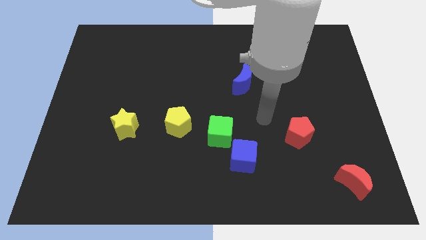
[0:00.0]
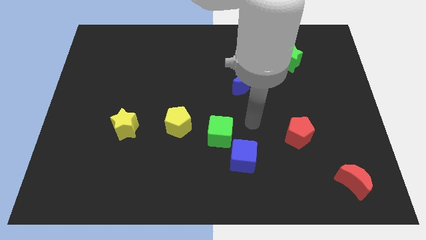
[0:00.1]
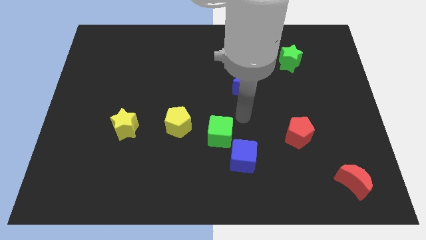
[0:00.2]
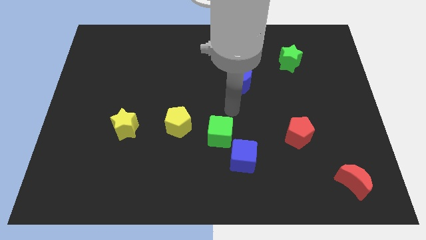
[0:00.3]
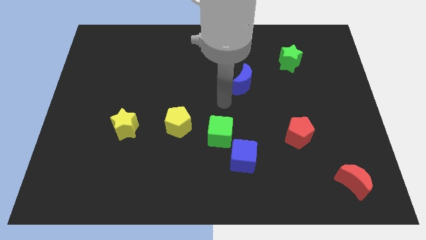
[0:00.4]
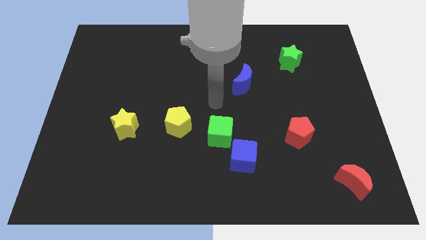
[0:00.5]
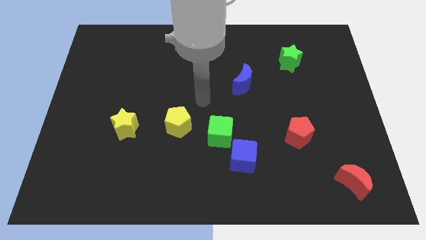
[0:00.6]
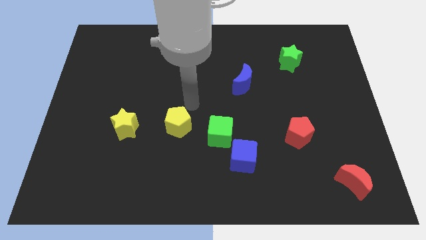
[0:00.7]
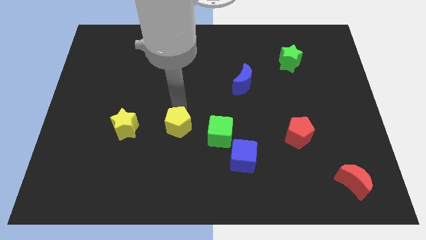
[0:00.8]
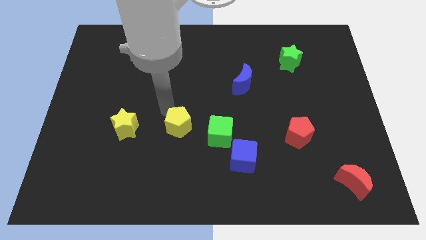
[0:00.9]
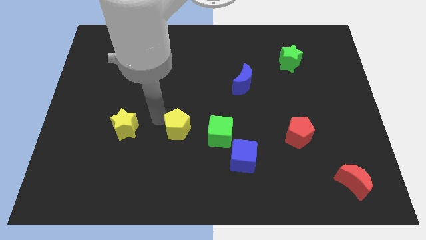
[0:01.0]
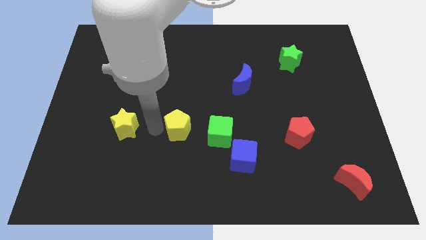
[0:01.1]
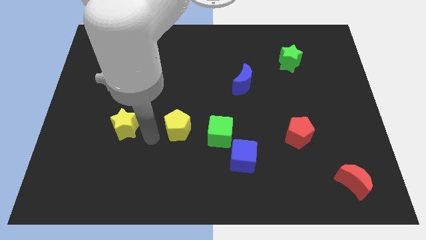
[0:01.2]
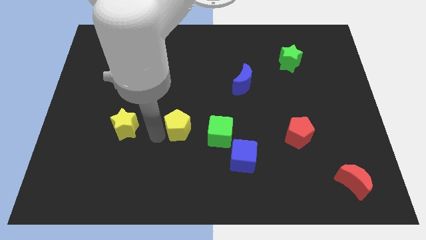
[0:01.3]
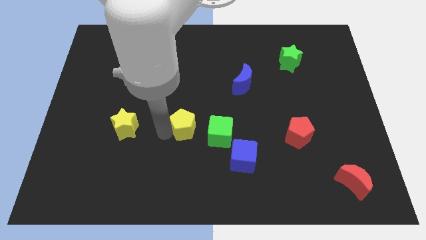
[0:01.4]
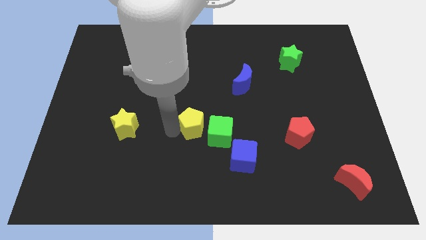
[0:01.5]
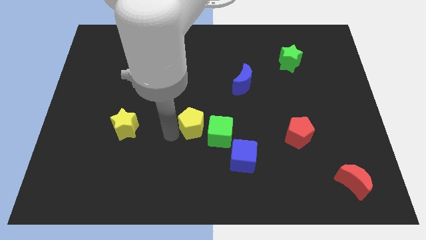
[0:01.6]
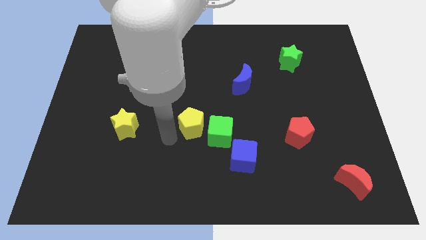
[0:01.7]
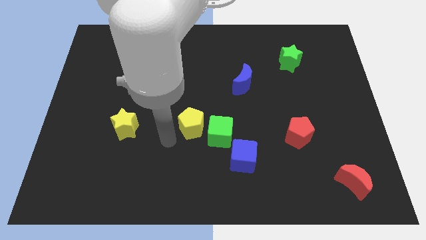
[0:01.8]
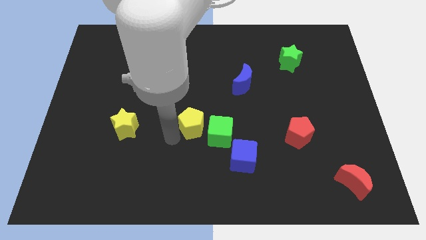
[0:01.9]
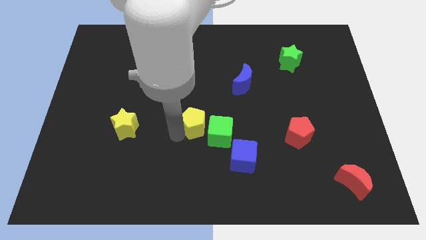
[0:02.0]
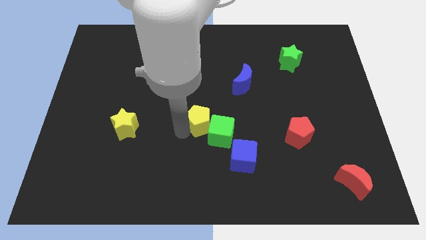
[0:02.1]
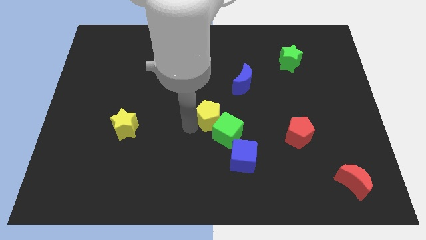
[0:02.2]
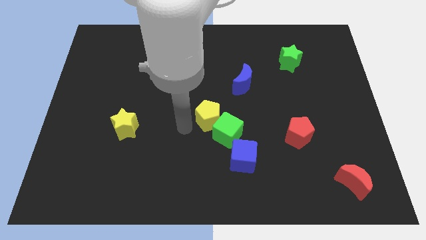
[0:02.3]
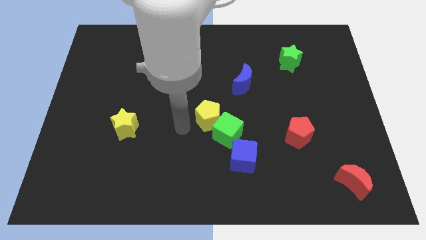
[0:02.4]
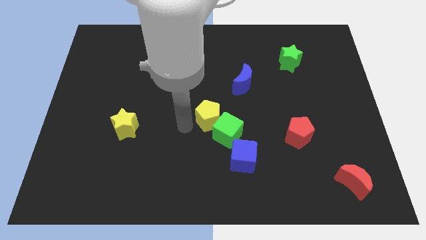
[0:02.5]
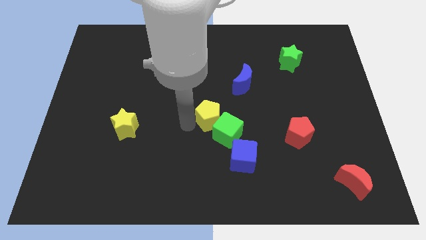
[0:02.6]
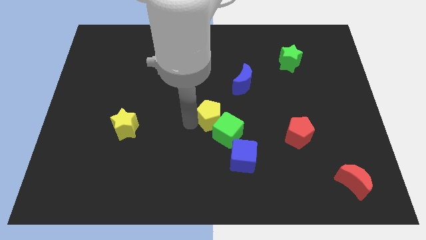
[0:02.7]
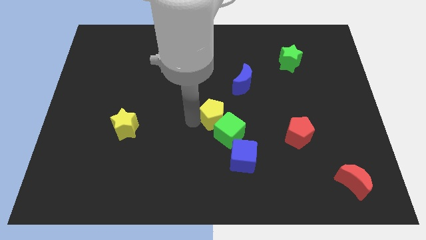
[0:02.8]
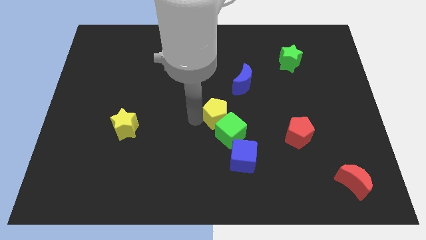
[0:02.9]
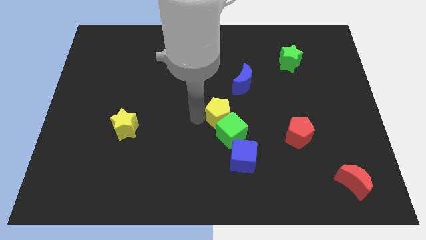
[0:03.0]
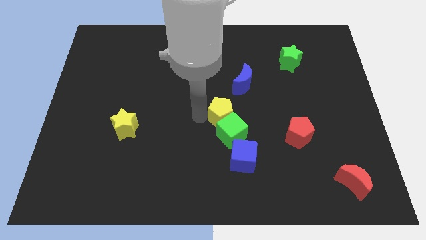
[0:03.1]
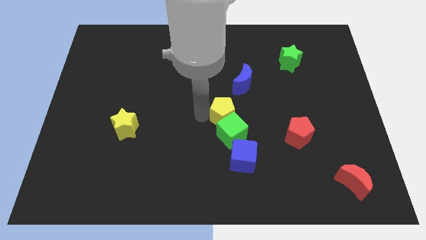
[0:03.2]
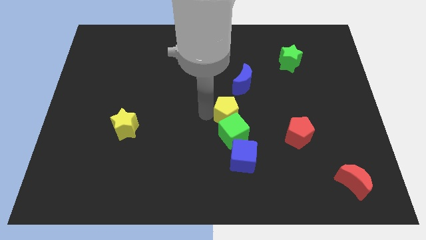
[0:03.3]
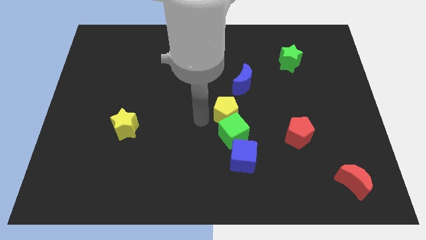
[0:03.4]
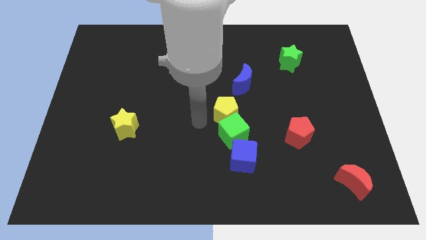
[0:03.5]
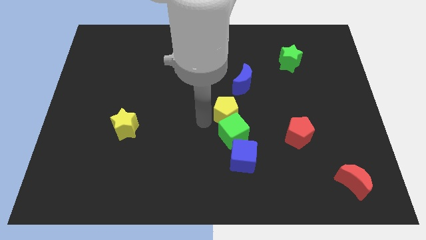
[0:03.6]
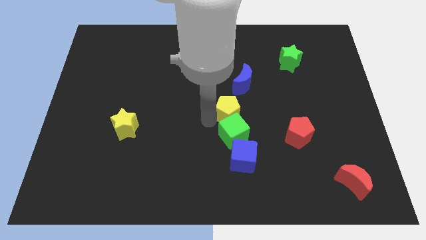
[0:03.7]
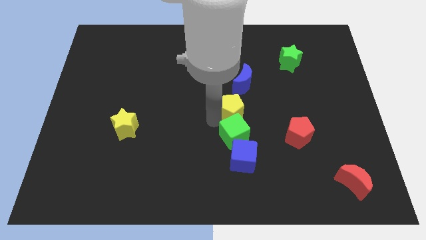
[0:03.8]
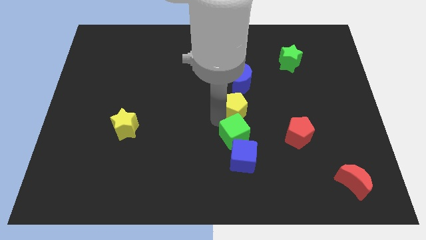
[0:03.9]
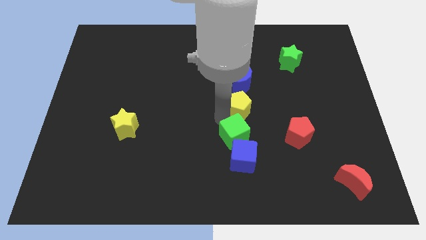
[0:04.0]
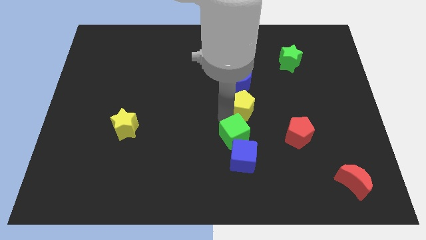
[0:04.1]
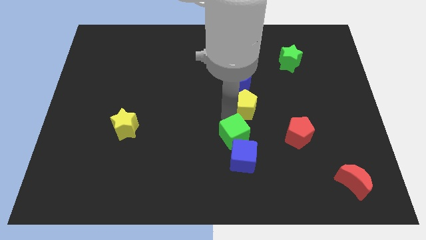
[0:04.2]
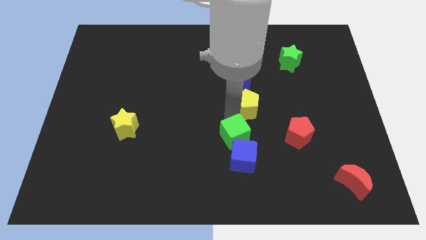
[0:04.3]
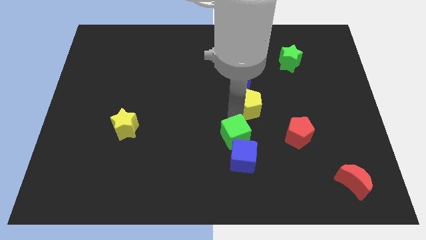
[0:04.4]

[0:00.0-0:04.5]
push the yellow pentagon diagonally down and to the right of the blue moon

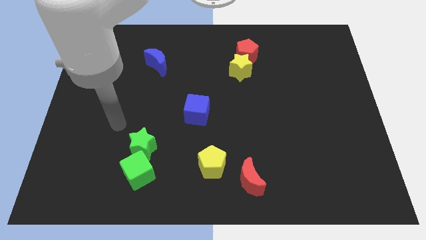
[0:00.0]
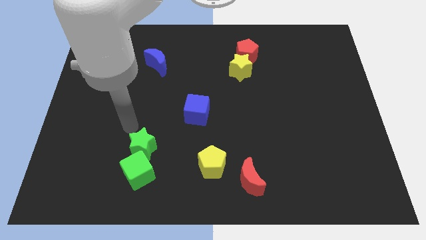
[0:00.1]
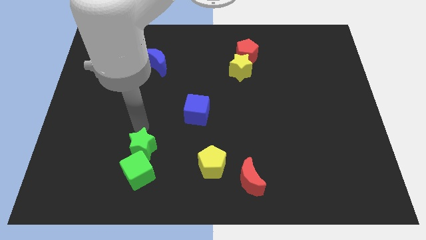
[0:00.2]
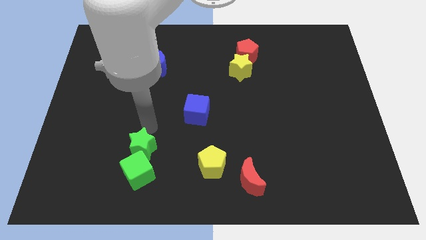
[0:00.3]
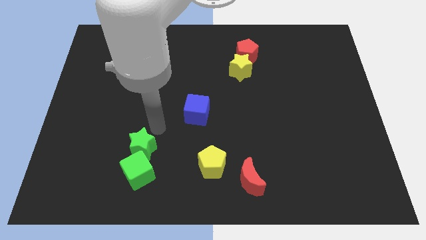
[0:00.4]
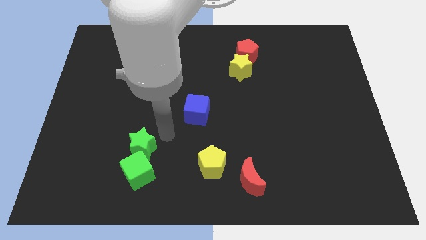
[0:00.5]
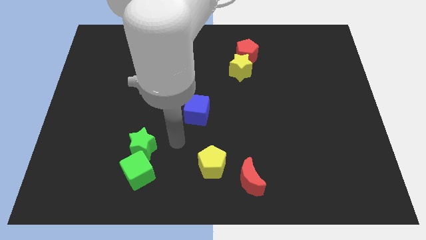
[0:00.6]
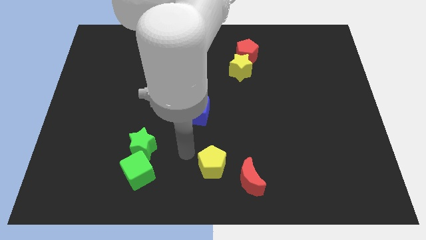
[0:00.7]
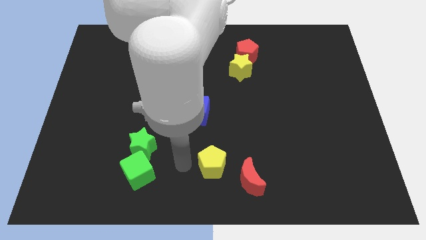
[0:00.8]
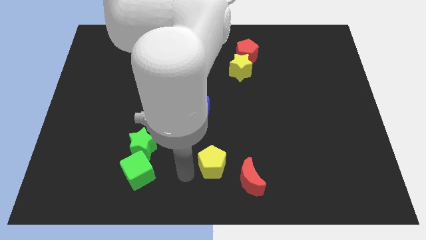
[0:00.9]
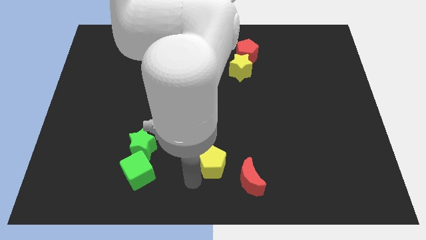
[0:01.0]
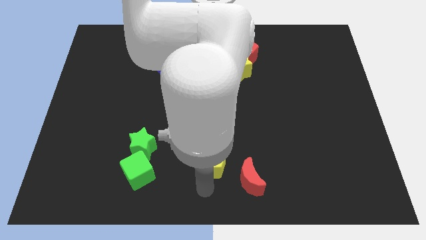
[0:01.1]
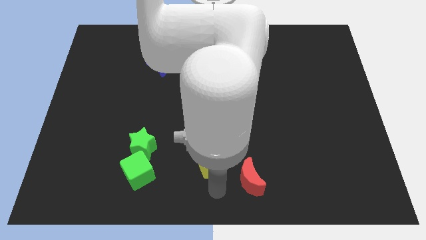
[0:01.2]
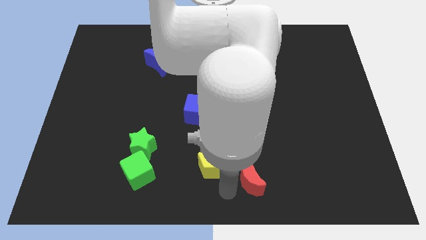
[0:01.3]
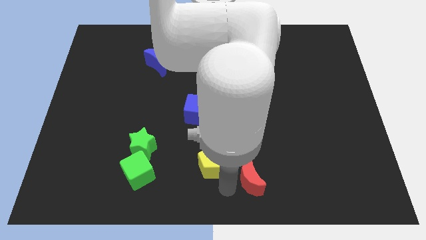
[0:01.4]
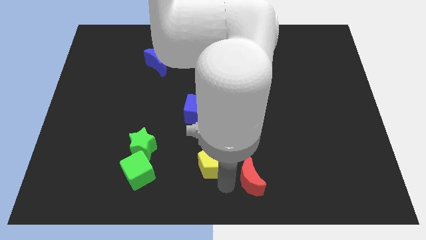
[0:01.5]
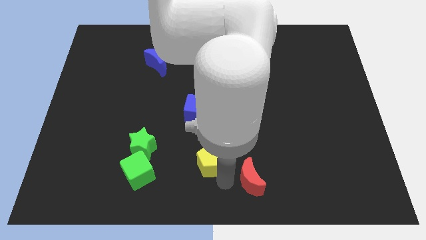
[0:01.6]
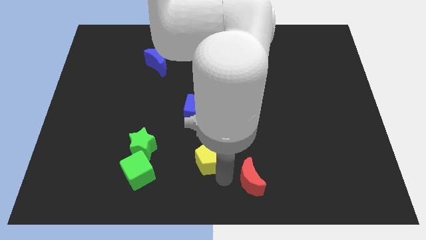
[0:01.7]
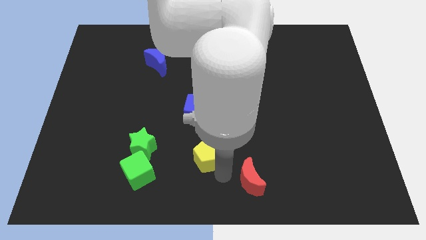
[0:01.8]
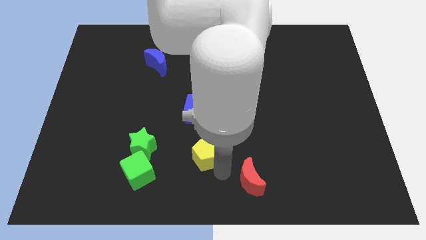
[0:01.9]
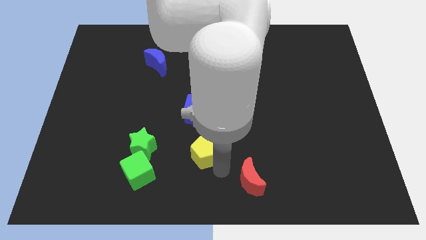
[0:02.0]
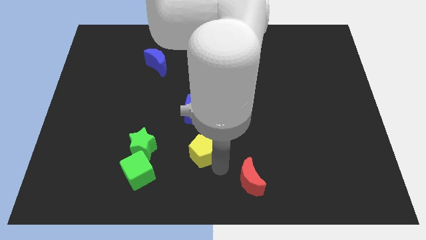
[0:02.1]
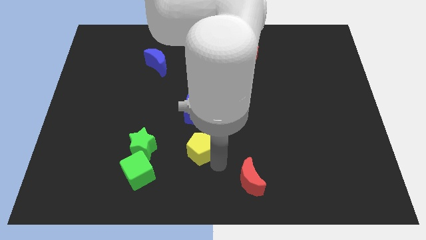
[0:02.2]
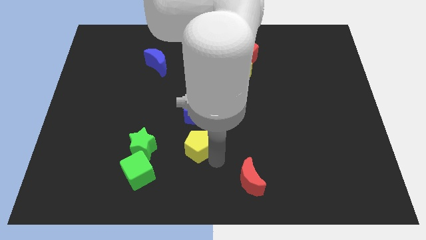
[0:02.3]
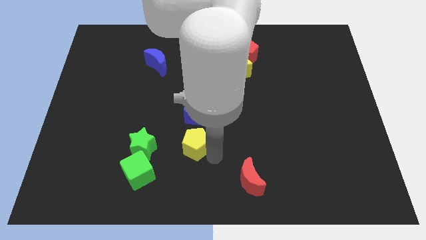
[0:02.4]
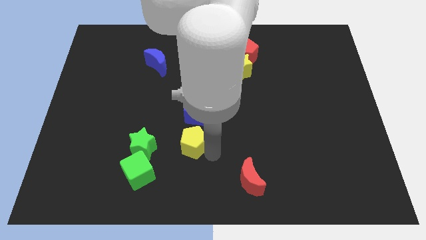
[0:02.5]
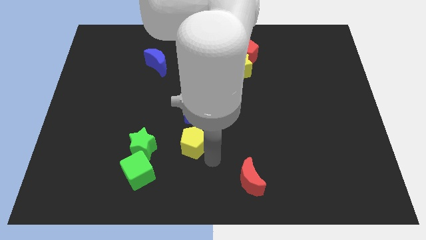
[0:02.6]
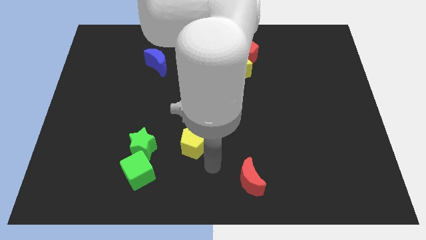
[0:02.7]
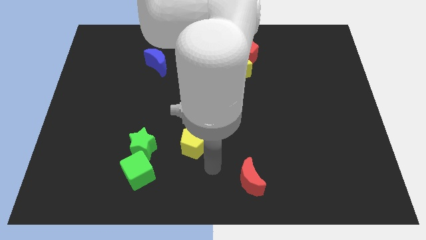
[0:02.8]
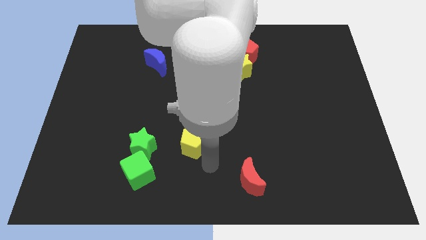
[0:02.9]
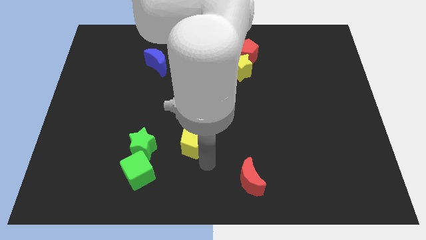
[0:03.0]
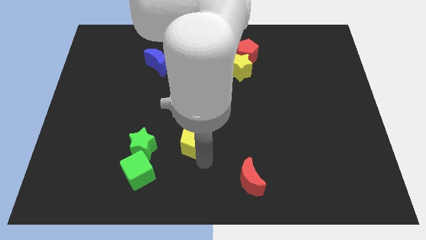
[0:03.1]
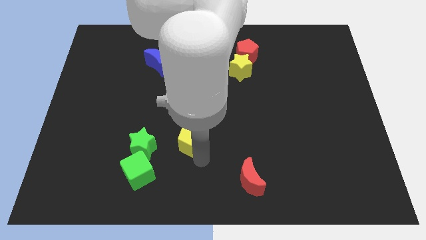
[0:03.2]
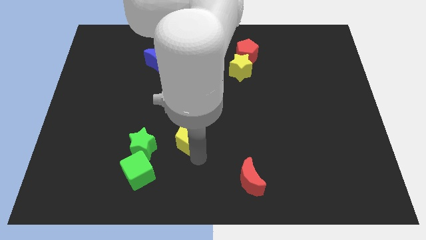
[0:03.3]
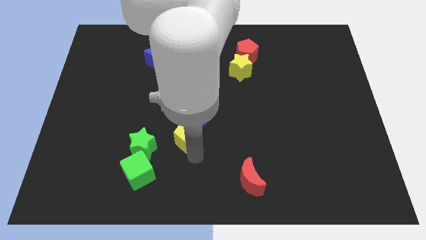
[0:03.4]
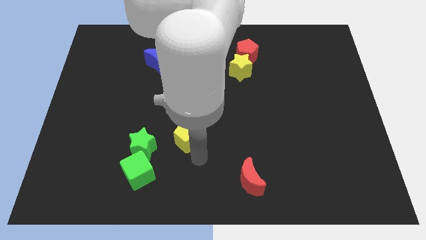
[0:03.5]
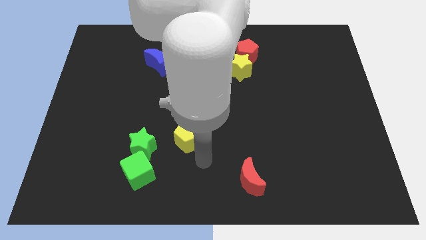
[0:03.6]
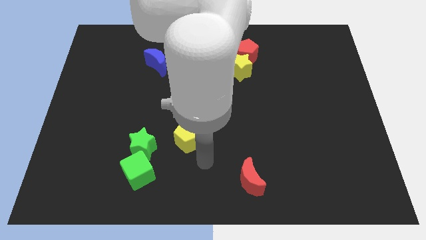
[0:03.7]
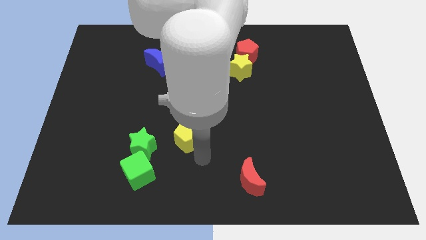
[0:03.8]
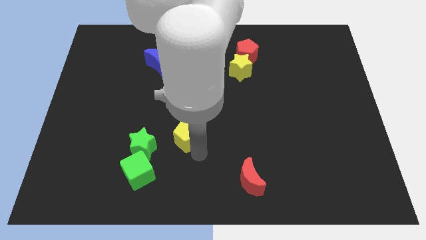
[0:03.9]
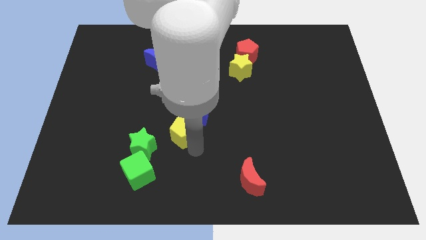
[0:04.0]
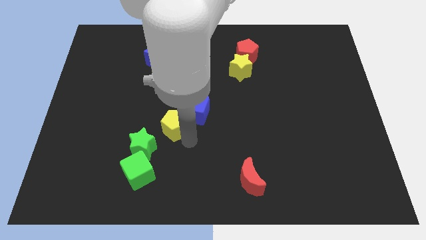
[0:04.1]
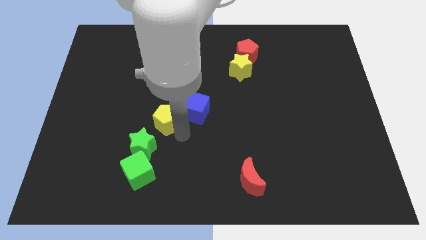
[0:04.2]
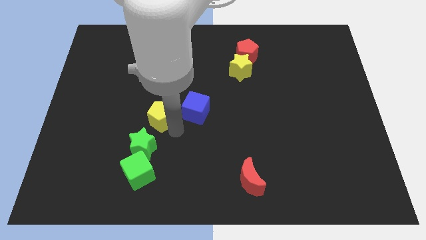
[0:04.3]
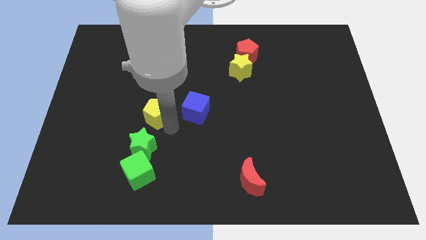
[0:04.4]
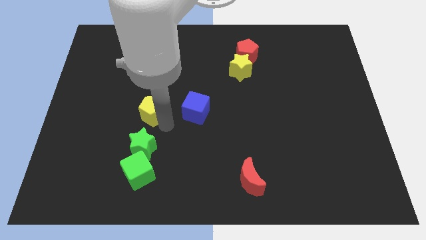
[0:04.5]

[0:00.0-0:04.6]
put the yellow pentagon to the bottom side of the blue moon
